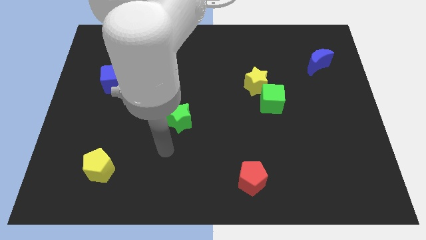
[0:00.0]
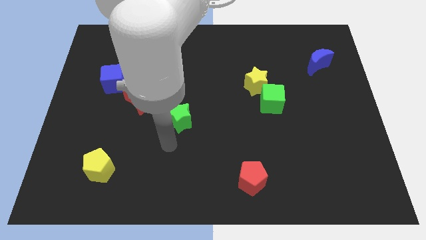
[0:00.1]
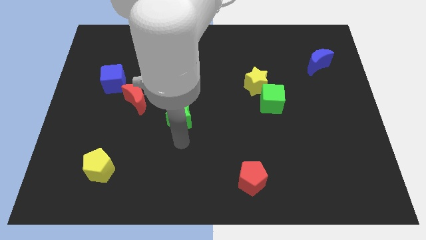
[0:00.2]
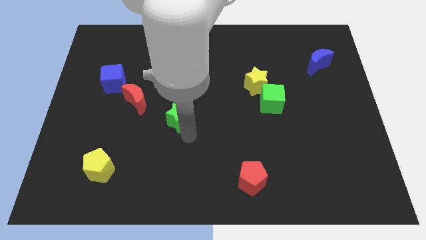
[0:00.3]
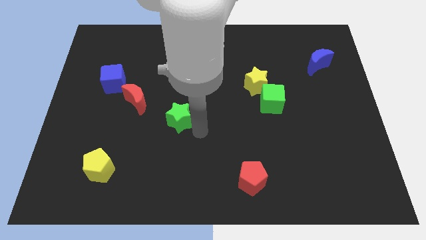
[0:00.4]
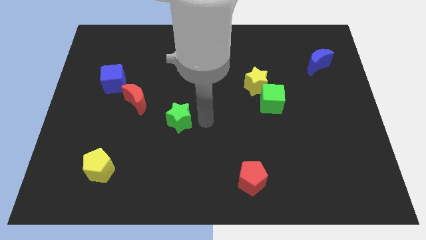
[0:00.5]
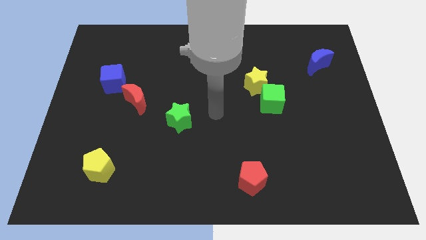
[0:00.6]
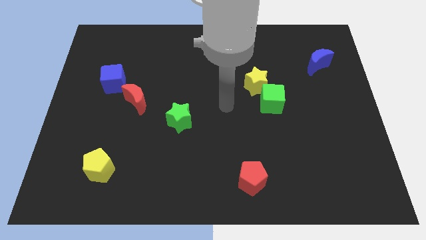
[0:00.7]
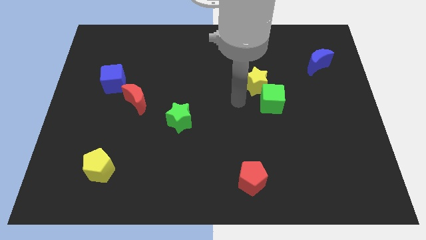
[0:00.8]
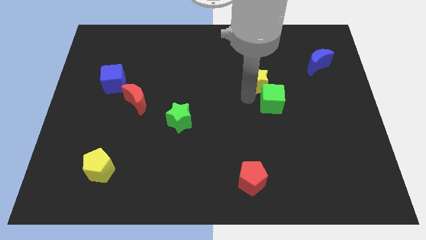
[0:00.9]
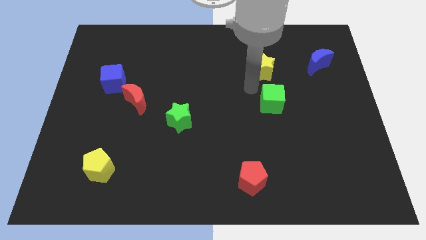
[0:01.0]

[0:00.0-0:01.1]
separate the green cube from the yellow star

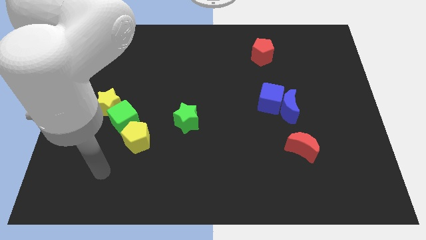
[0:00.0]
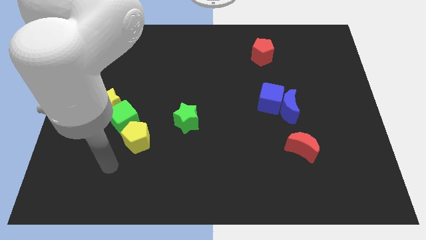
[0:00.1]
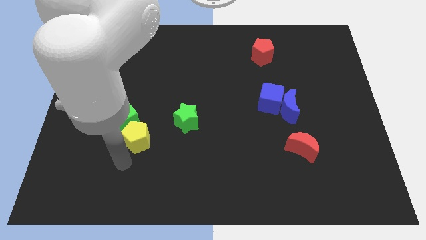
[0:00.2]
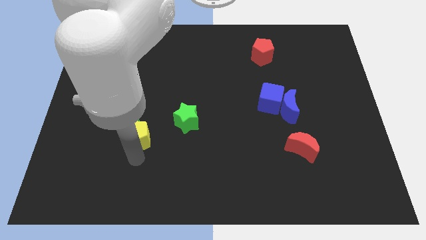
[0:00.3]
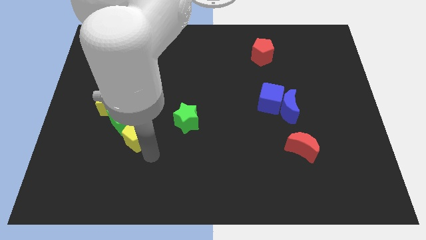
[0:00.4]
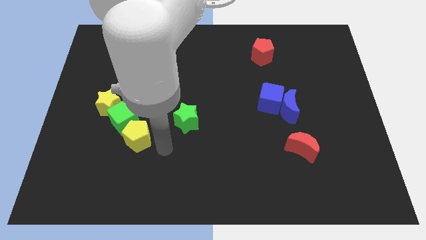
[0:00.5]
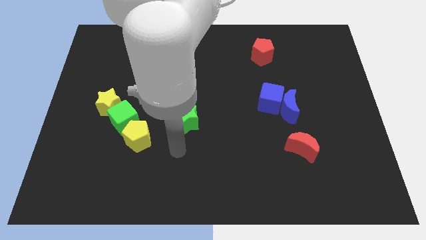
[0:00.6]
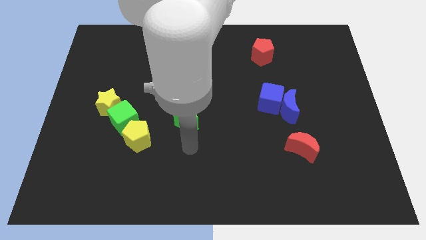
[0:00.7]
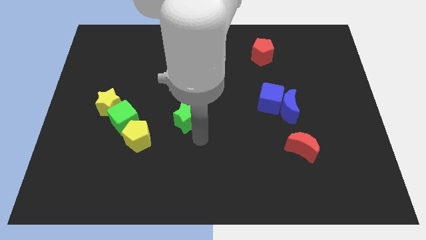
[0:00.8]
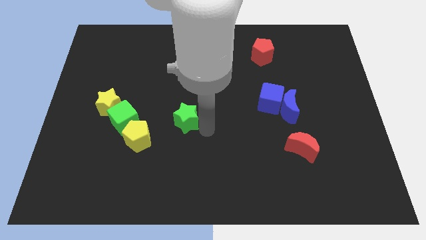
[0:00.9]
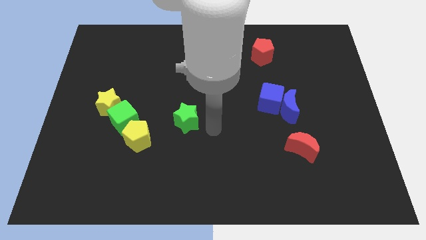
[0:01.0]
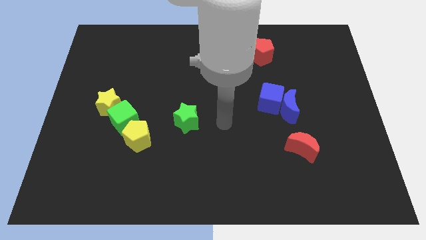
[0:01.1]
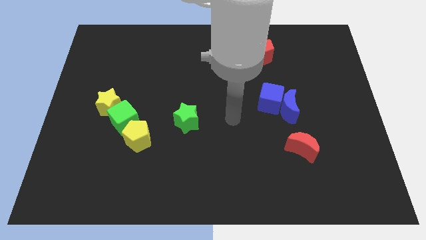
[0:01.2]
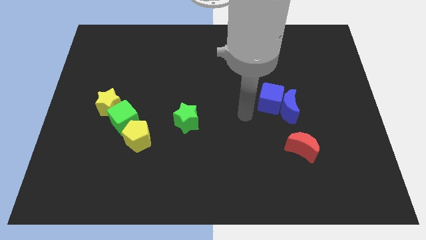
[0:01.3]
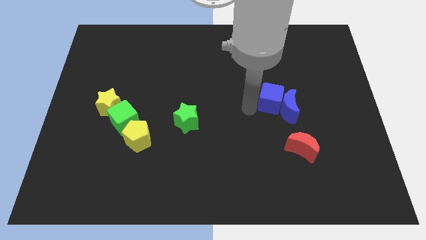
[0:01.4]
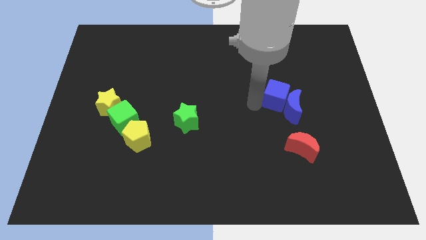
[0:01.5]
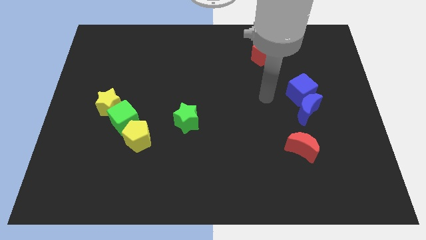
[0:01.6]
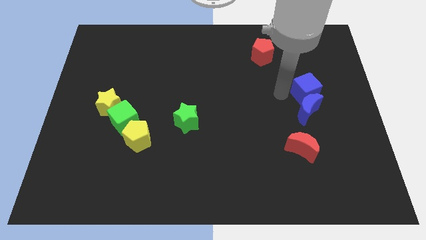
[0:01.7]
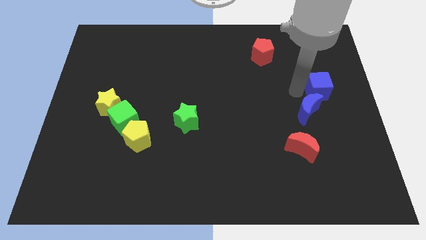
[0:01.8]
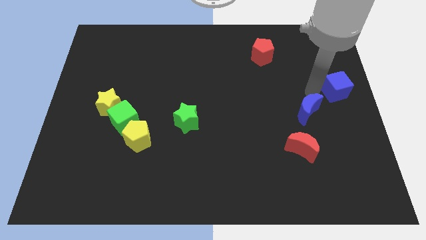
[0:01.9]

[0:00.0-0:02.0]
move the blue moon away from the blue cube

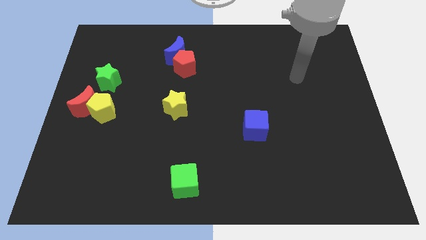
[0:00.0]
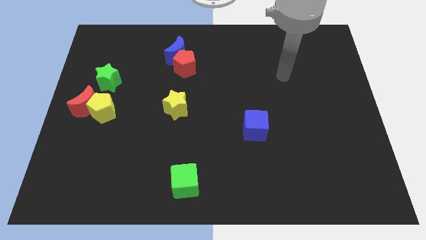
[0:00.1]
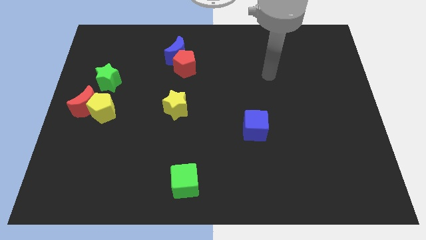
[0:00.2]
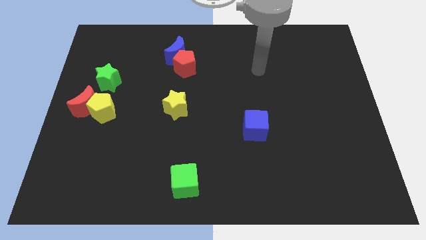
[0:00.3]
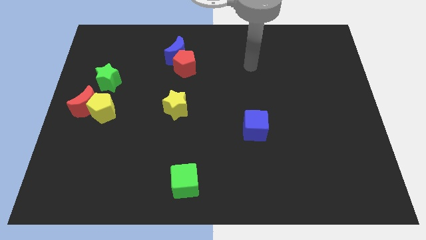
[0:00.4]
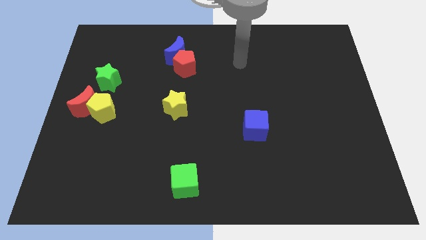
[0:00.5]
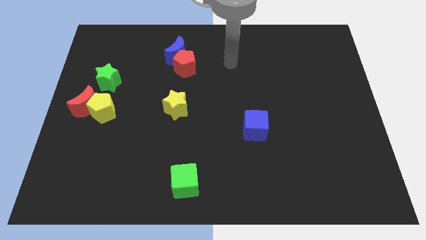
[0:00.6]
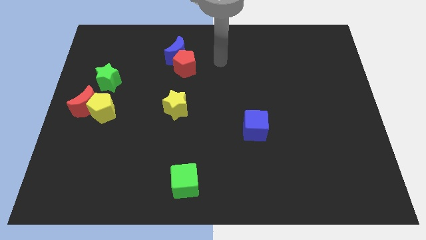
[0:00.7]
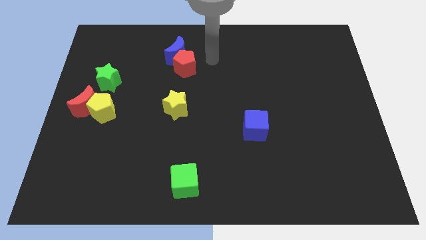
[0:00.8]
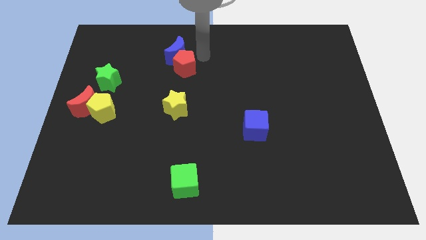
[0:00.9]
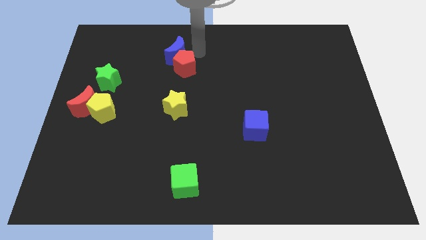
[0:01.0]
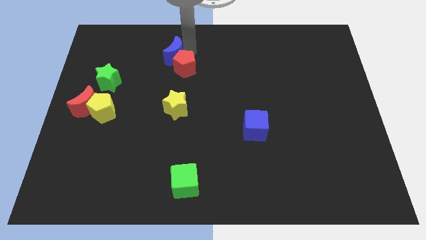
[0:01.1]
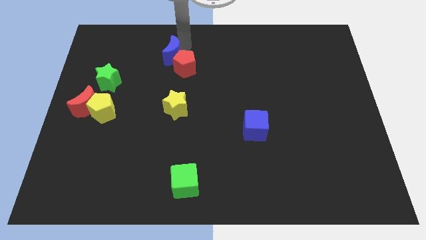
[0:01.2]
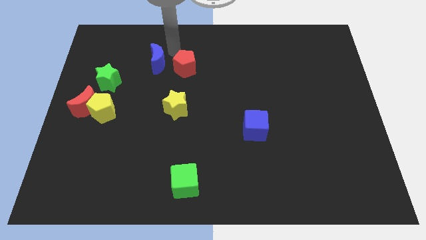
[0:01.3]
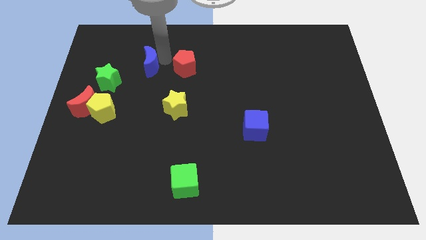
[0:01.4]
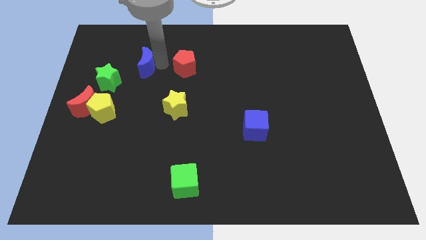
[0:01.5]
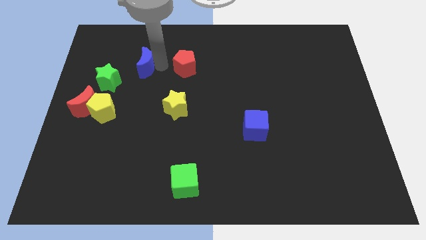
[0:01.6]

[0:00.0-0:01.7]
pull the red pentagon apart from the blue moon

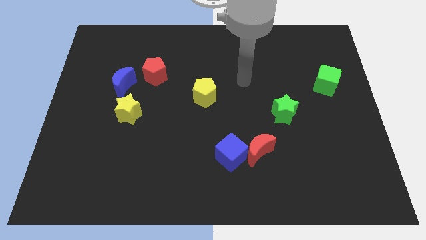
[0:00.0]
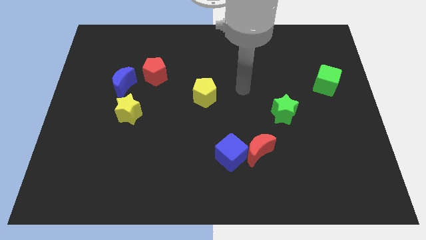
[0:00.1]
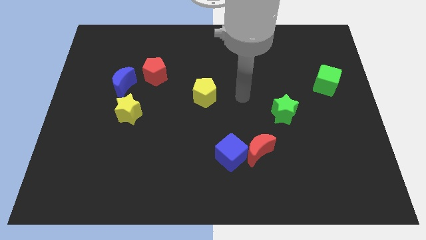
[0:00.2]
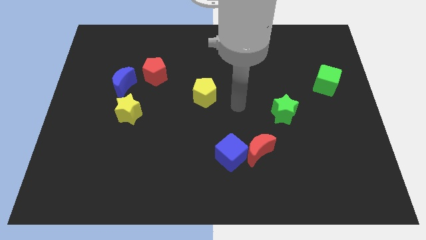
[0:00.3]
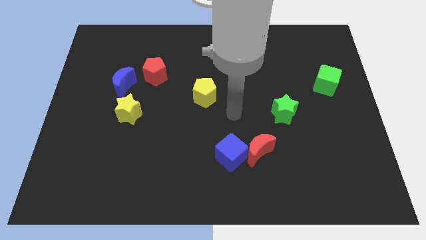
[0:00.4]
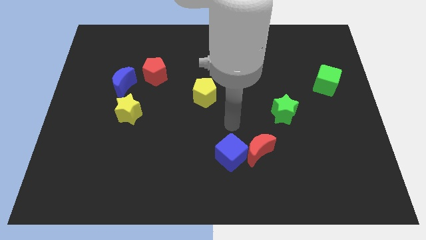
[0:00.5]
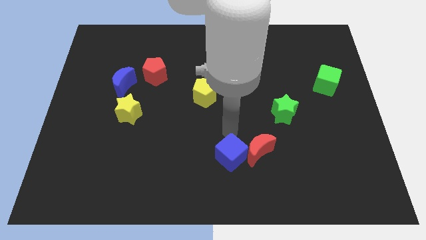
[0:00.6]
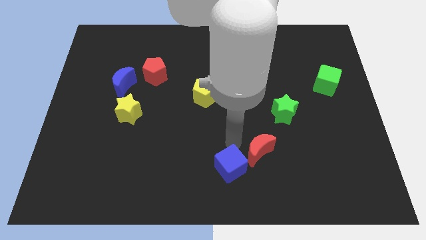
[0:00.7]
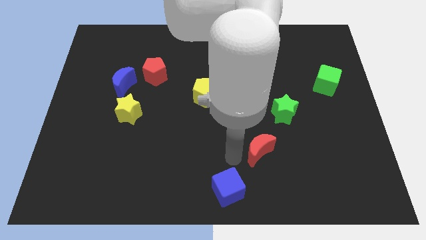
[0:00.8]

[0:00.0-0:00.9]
move the red moon away from the blue cube

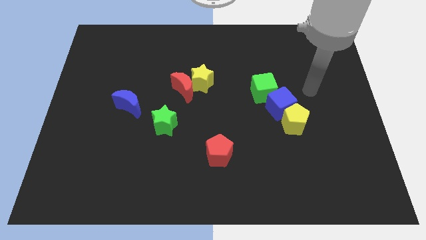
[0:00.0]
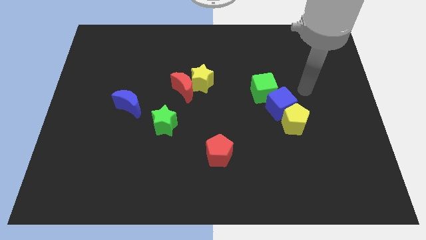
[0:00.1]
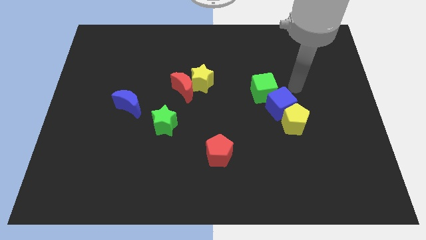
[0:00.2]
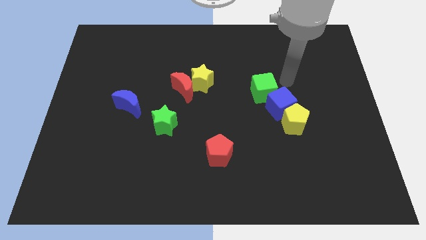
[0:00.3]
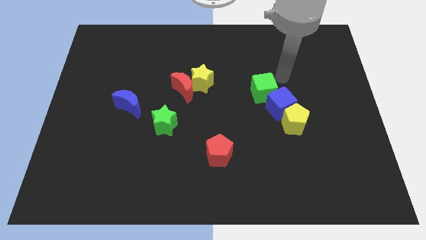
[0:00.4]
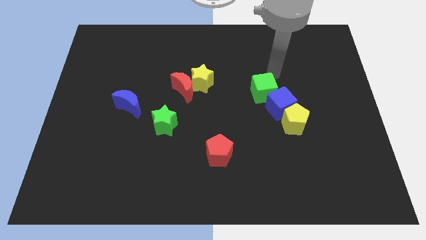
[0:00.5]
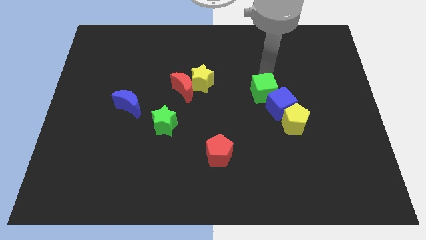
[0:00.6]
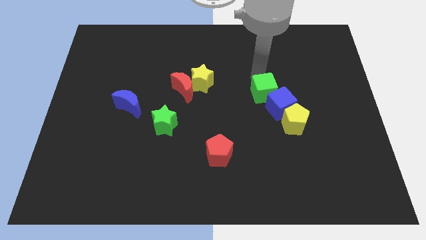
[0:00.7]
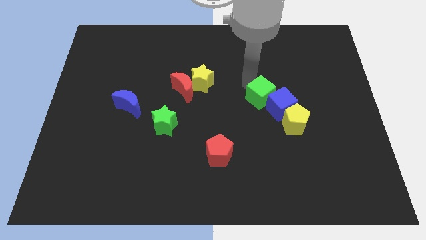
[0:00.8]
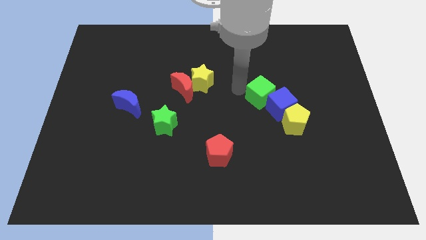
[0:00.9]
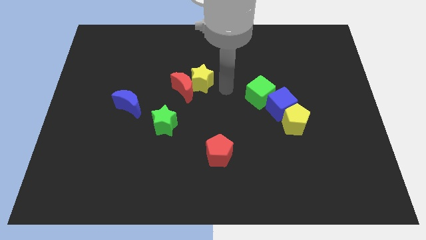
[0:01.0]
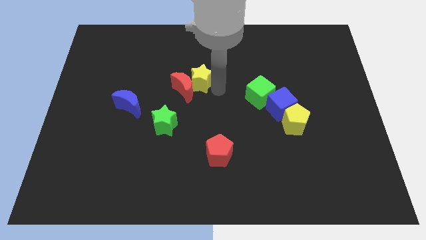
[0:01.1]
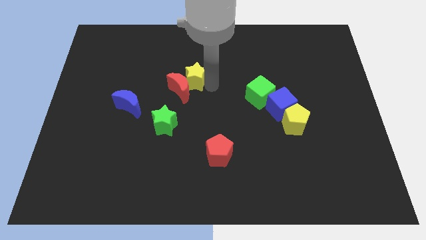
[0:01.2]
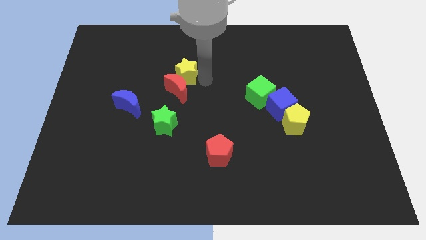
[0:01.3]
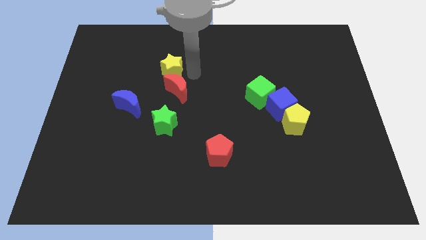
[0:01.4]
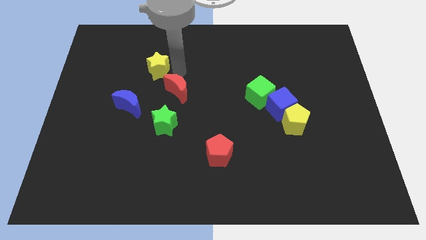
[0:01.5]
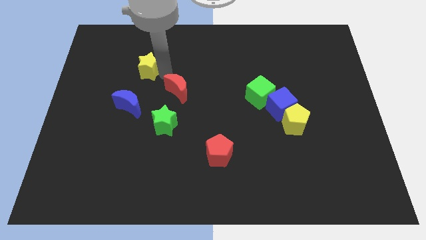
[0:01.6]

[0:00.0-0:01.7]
move the red moon away from the yellow star

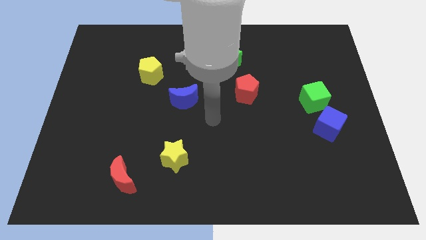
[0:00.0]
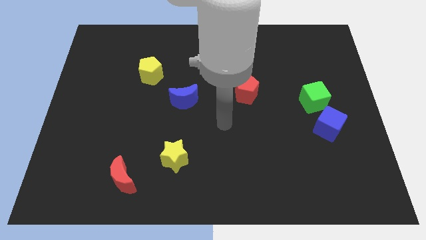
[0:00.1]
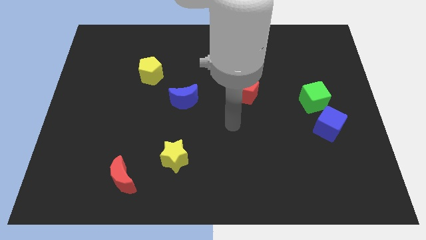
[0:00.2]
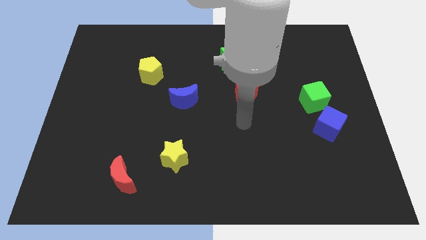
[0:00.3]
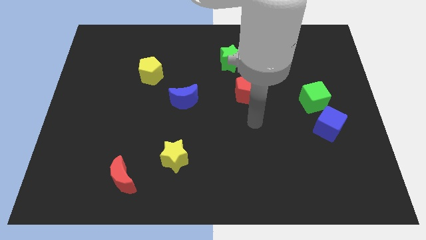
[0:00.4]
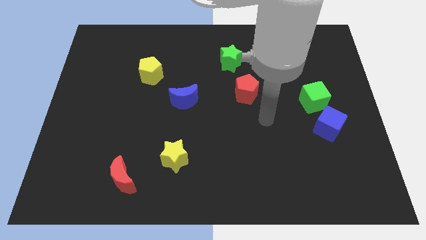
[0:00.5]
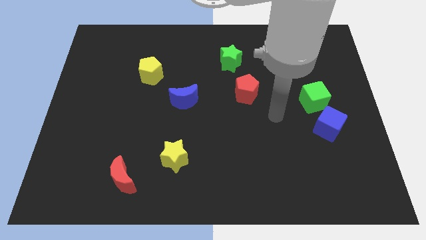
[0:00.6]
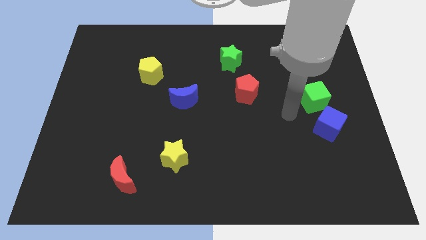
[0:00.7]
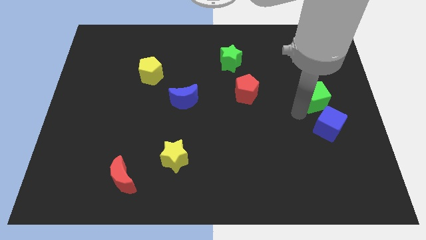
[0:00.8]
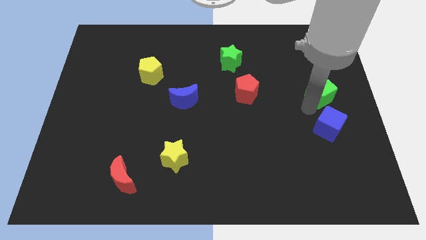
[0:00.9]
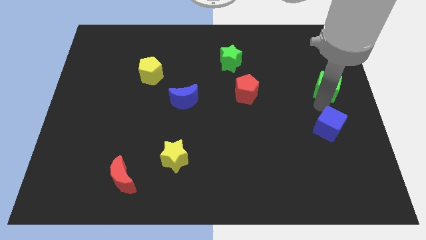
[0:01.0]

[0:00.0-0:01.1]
pull the blue cube apart from the green cube

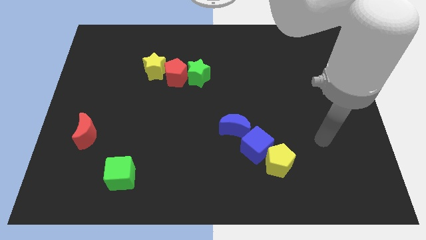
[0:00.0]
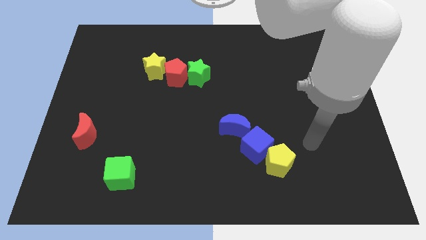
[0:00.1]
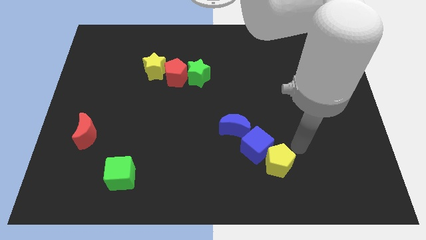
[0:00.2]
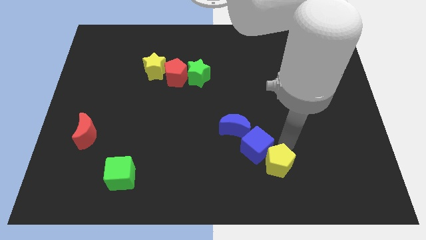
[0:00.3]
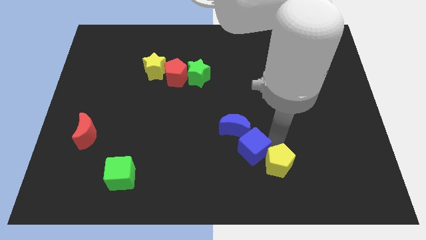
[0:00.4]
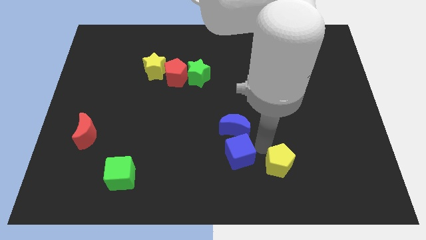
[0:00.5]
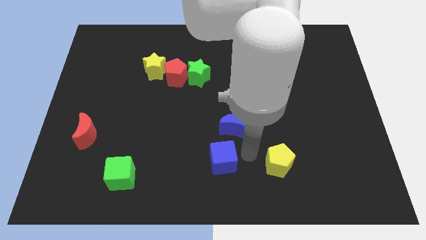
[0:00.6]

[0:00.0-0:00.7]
move the yellow pentagon away from the blue cube
